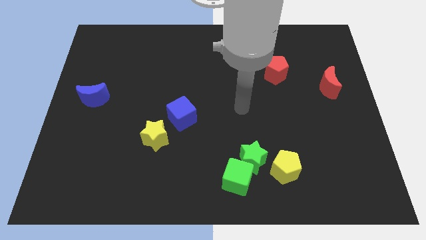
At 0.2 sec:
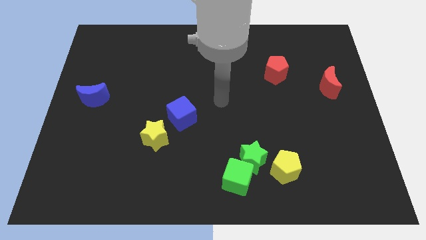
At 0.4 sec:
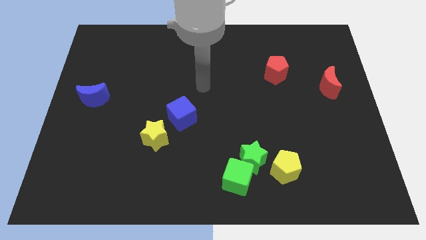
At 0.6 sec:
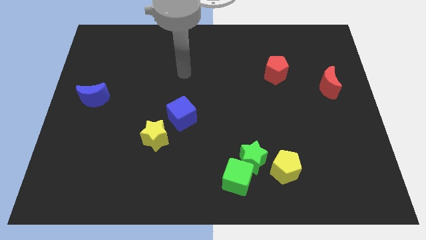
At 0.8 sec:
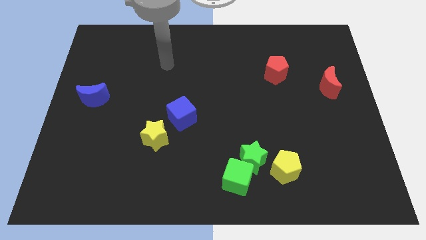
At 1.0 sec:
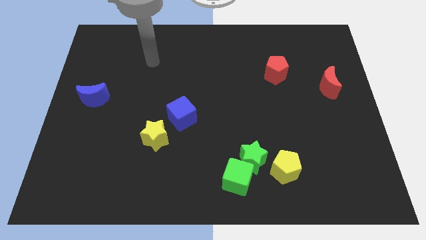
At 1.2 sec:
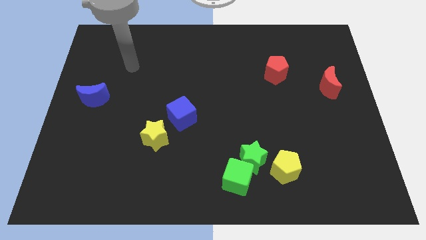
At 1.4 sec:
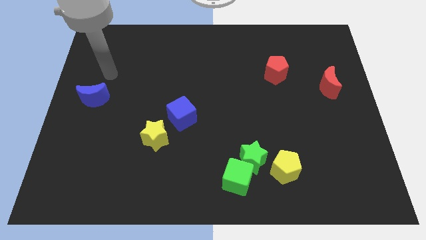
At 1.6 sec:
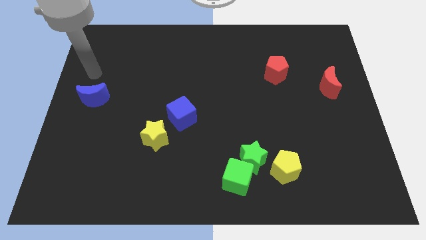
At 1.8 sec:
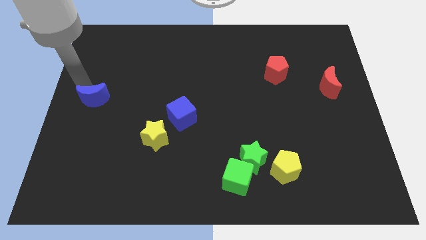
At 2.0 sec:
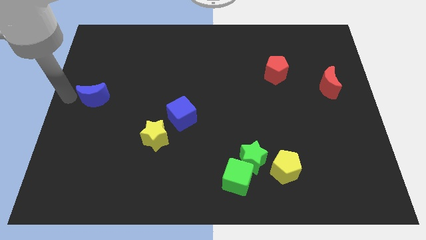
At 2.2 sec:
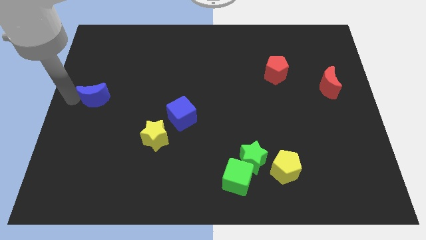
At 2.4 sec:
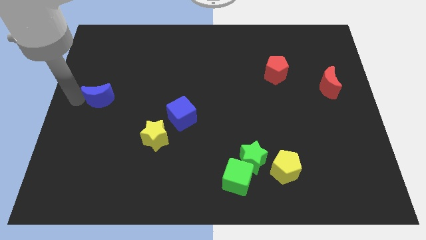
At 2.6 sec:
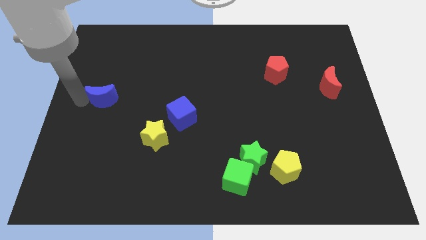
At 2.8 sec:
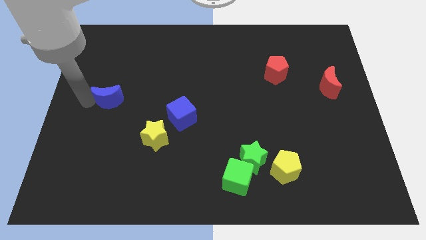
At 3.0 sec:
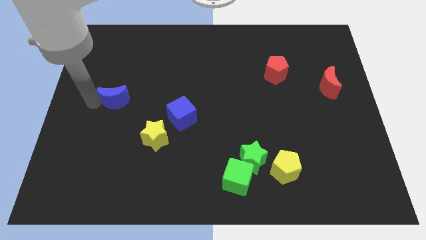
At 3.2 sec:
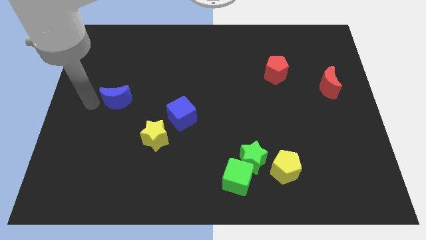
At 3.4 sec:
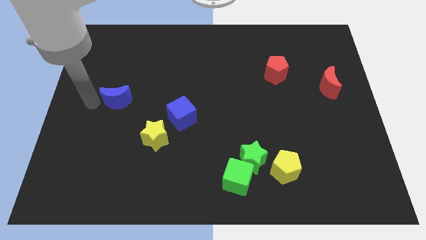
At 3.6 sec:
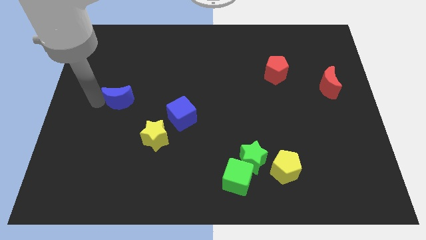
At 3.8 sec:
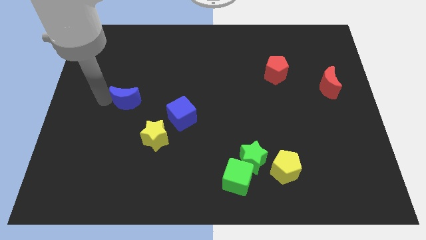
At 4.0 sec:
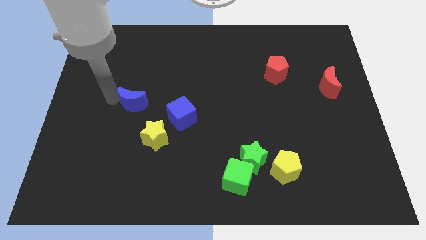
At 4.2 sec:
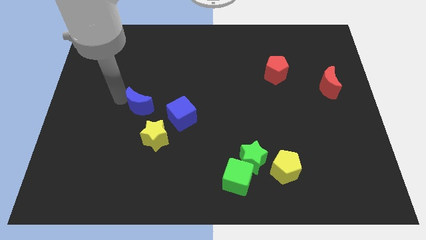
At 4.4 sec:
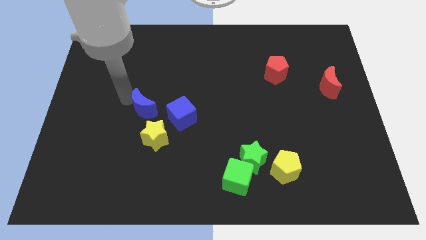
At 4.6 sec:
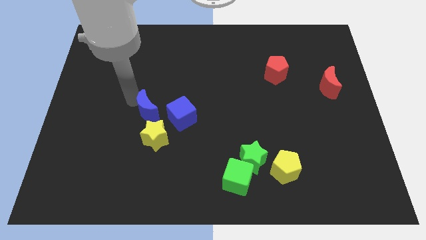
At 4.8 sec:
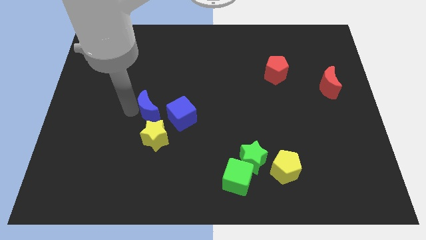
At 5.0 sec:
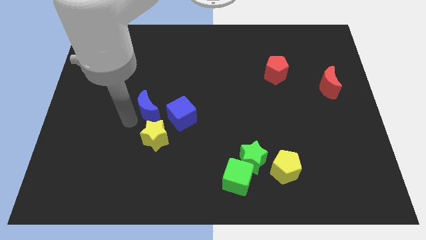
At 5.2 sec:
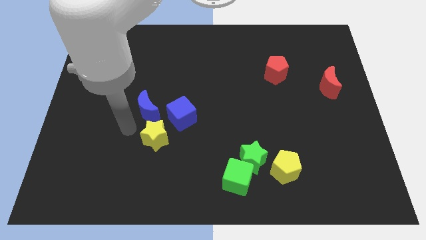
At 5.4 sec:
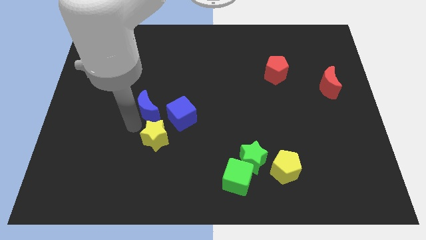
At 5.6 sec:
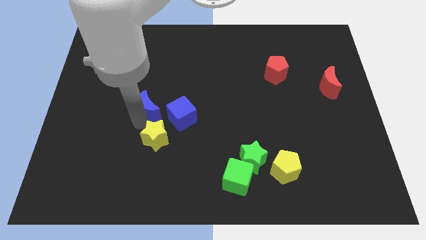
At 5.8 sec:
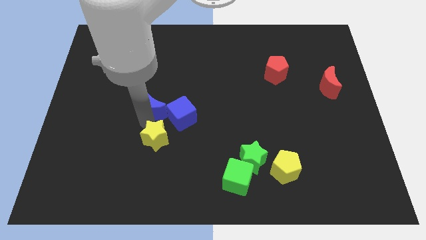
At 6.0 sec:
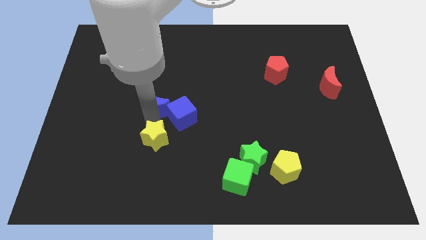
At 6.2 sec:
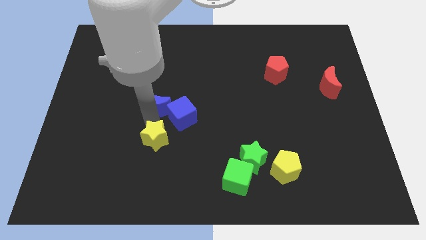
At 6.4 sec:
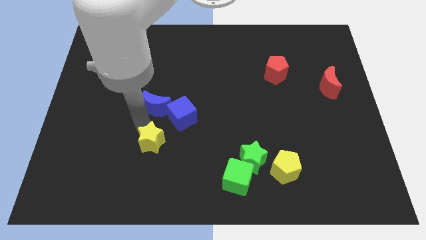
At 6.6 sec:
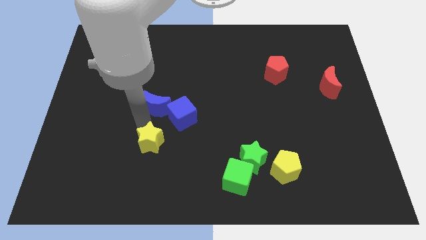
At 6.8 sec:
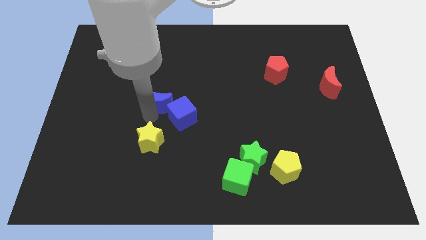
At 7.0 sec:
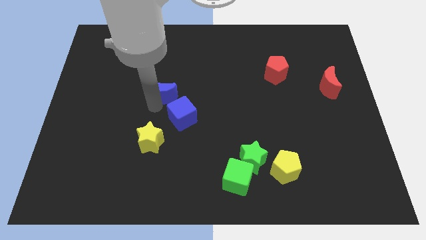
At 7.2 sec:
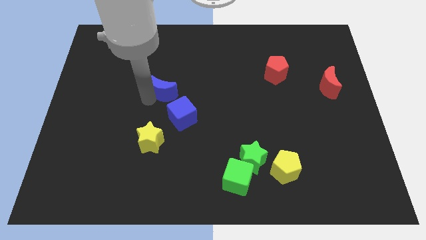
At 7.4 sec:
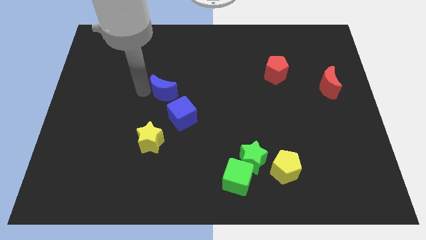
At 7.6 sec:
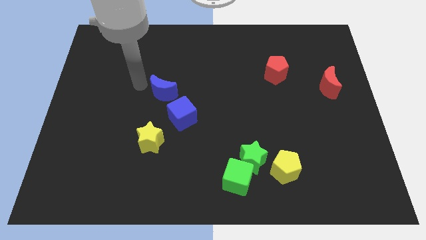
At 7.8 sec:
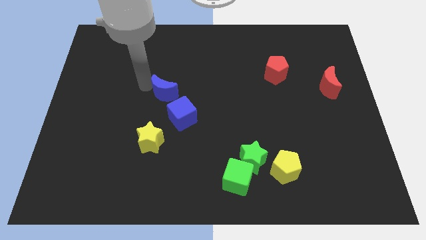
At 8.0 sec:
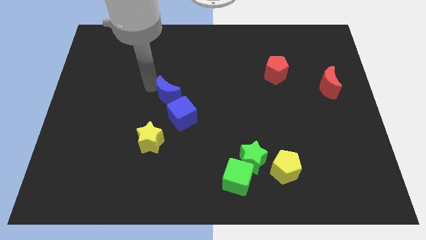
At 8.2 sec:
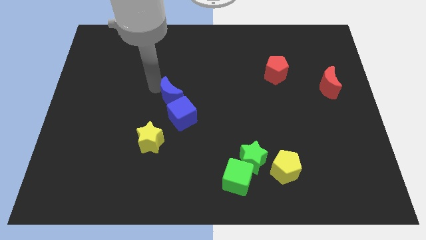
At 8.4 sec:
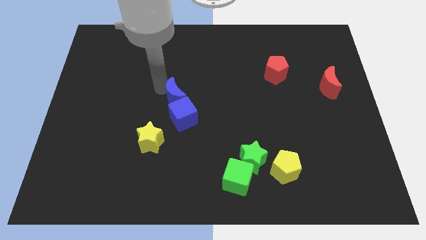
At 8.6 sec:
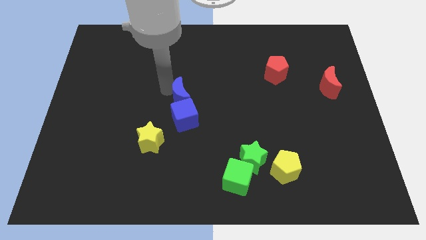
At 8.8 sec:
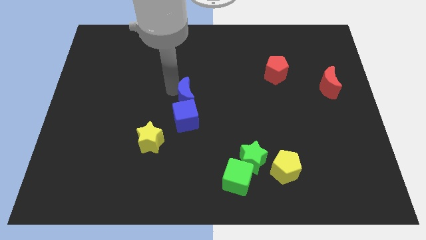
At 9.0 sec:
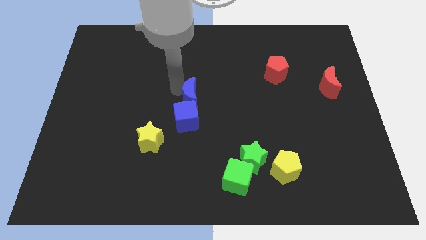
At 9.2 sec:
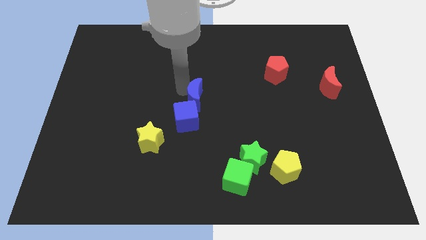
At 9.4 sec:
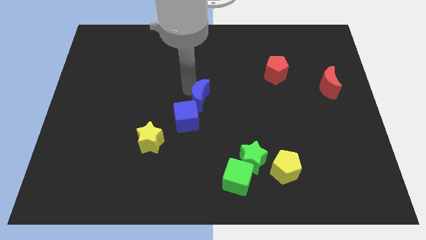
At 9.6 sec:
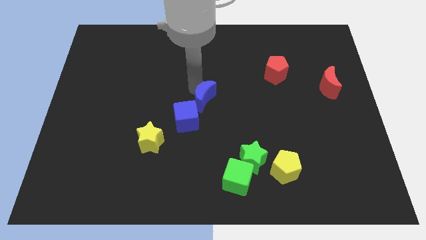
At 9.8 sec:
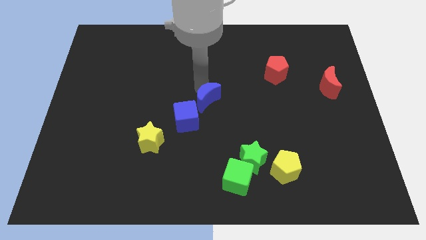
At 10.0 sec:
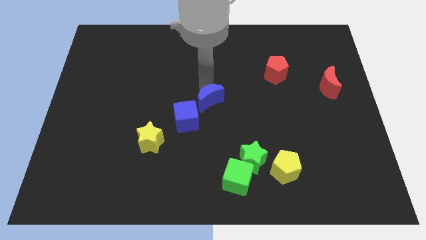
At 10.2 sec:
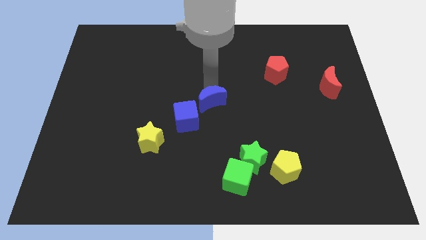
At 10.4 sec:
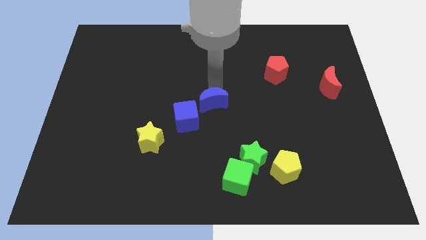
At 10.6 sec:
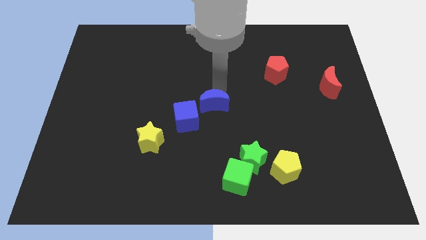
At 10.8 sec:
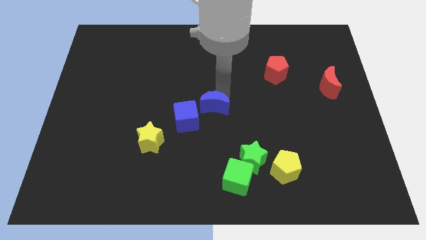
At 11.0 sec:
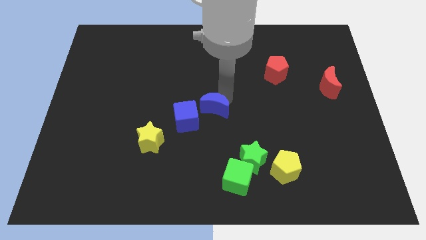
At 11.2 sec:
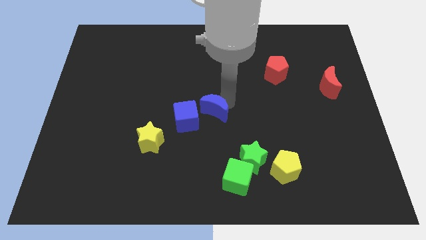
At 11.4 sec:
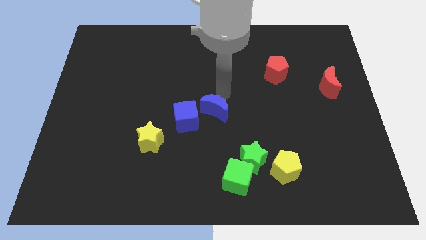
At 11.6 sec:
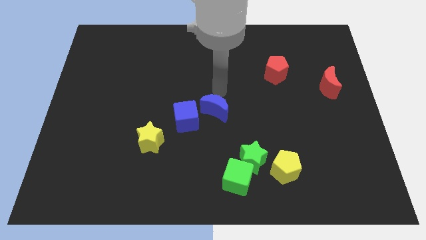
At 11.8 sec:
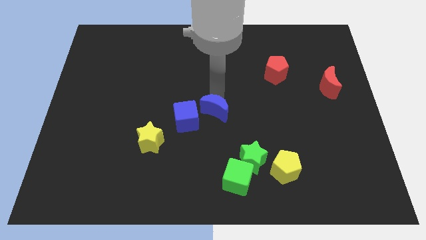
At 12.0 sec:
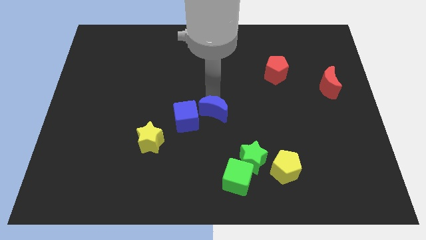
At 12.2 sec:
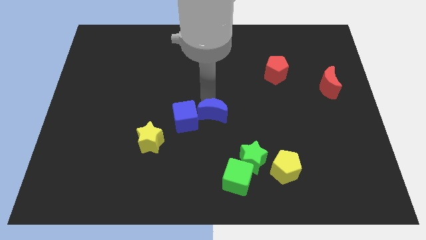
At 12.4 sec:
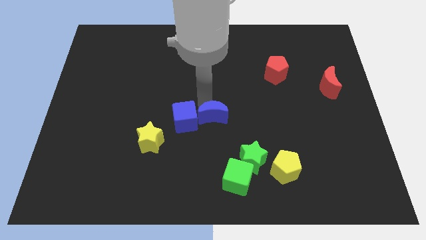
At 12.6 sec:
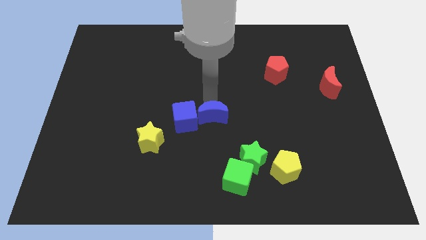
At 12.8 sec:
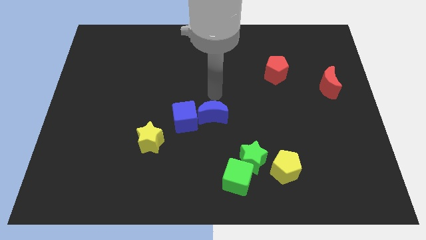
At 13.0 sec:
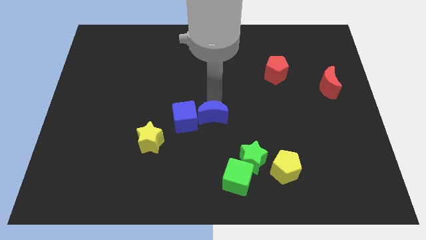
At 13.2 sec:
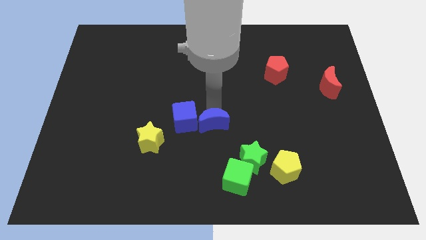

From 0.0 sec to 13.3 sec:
put the blue moon to the top left of the green star
